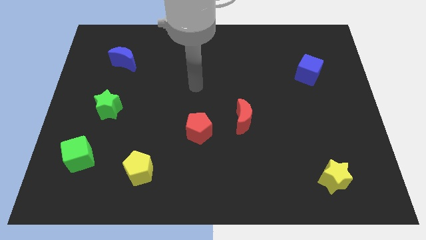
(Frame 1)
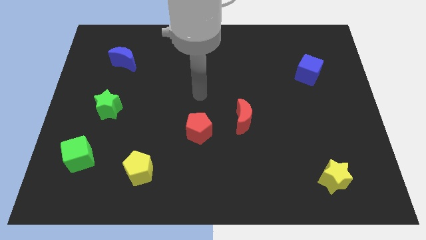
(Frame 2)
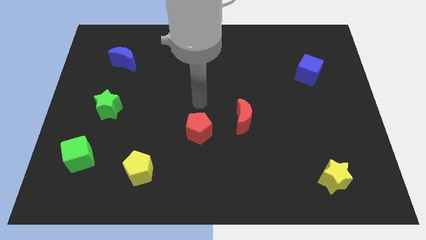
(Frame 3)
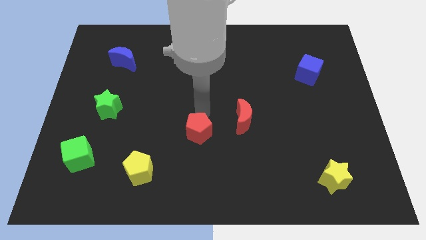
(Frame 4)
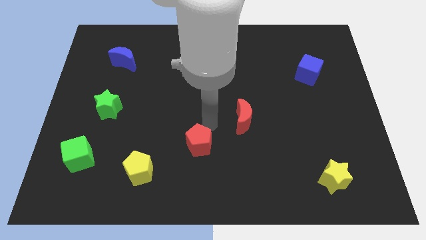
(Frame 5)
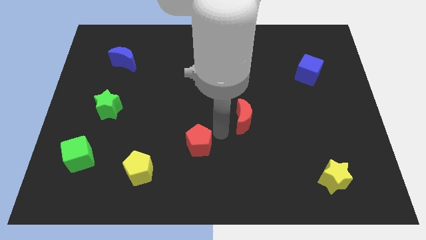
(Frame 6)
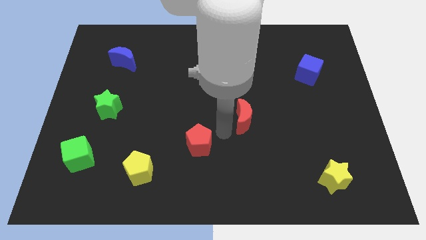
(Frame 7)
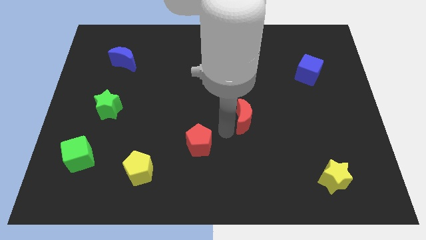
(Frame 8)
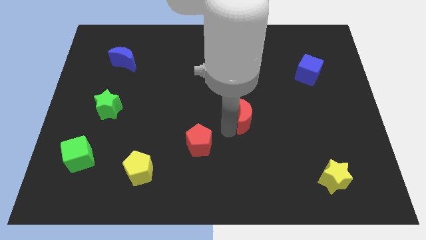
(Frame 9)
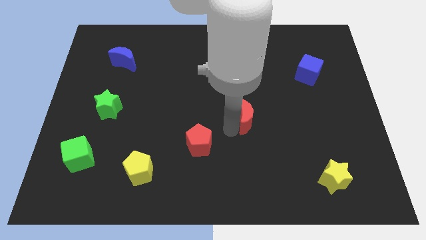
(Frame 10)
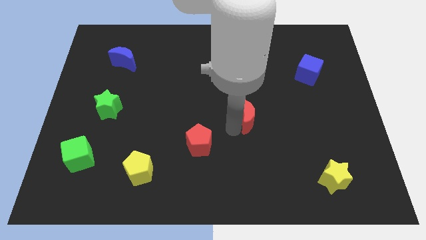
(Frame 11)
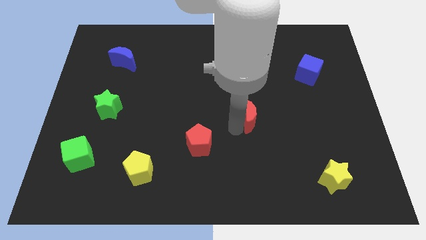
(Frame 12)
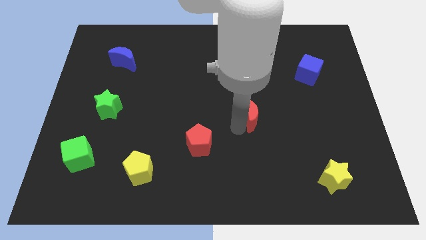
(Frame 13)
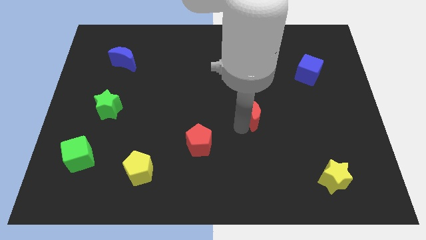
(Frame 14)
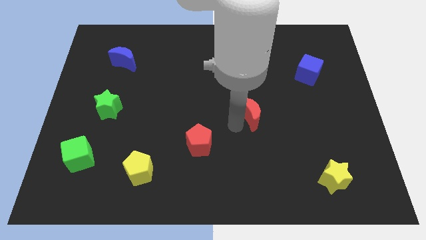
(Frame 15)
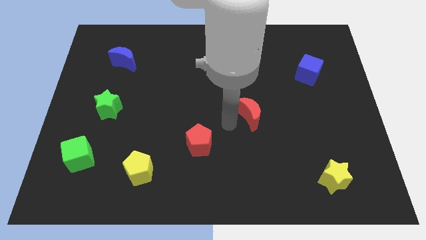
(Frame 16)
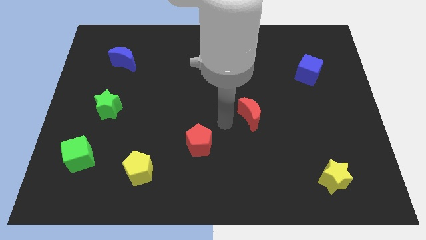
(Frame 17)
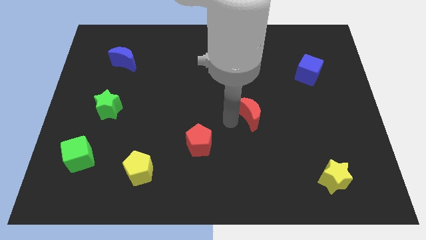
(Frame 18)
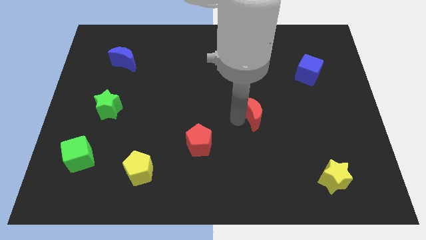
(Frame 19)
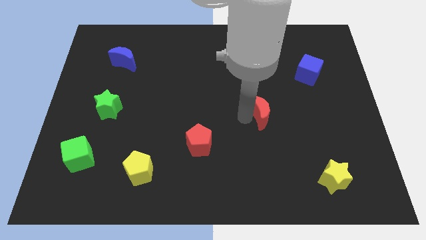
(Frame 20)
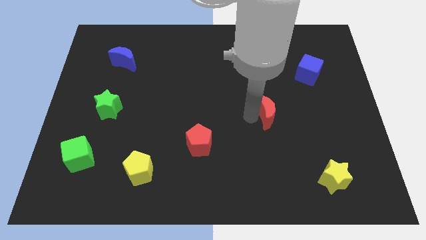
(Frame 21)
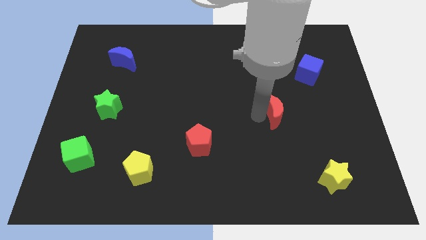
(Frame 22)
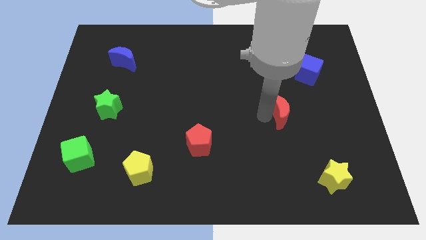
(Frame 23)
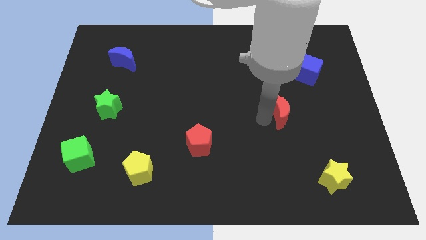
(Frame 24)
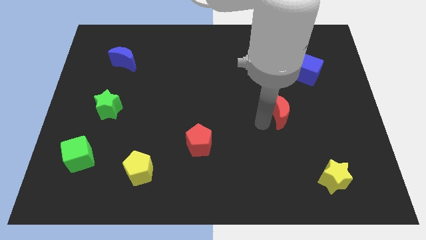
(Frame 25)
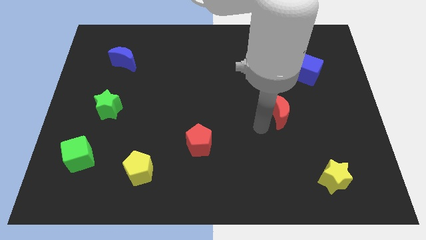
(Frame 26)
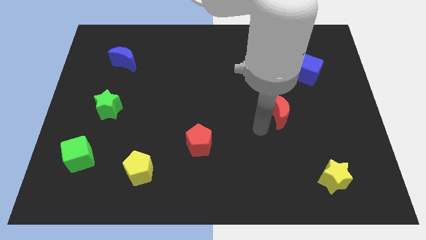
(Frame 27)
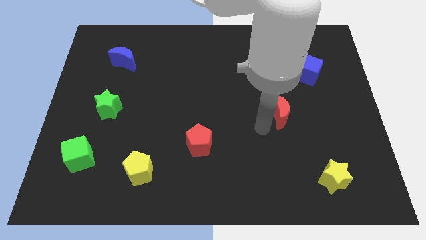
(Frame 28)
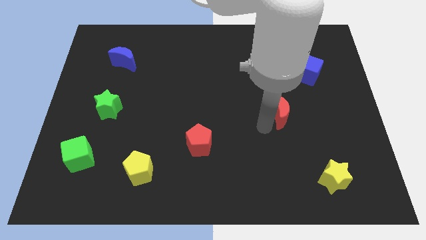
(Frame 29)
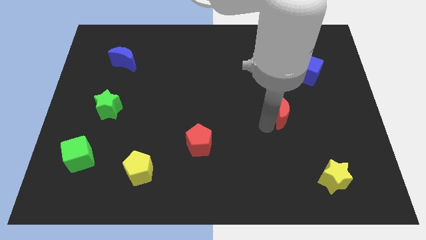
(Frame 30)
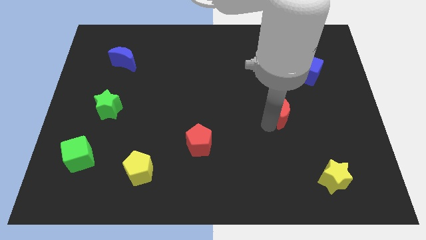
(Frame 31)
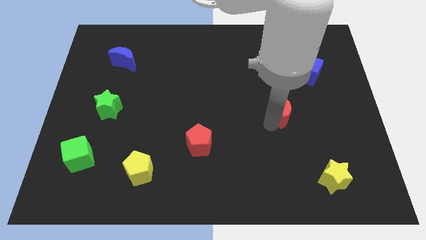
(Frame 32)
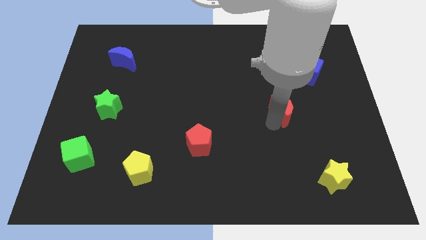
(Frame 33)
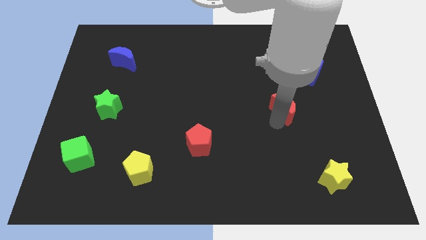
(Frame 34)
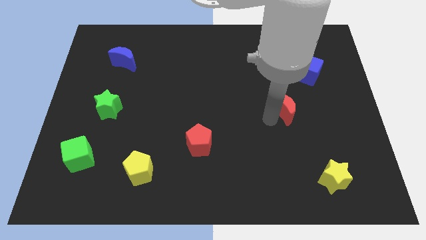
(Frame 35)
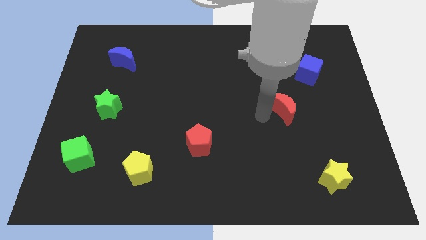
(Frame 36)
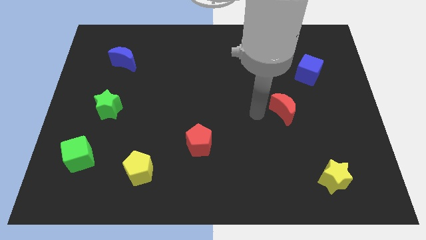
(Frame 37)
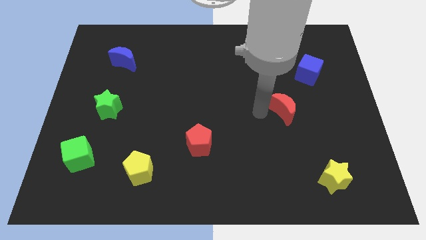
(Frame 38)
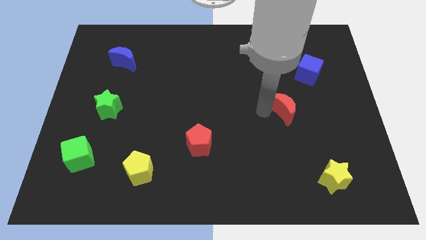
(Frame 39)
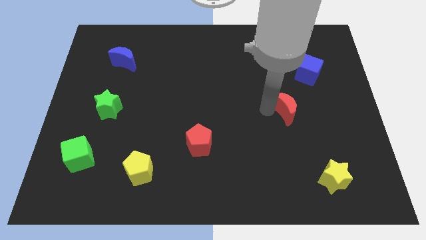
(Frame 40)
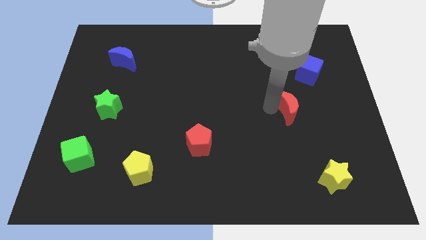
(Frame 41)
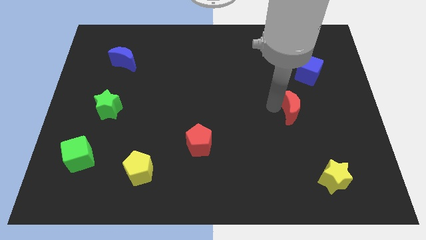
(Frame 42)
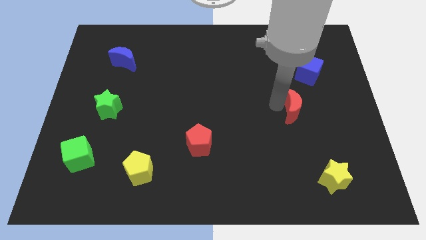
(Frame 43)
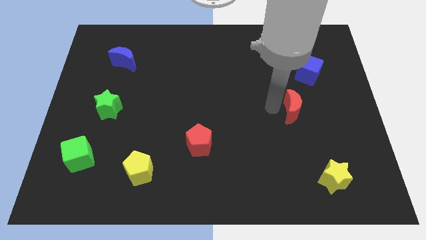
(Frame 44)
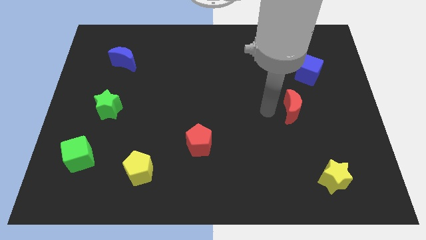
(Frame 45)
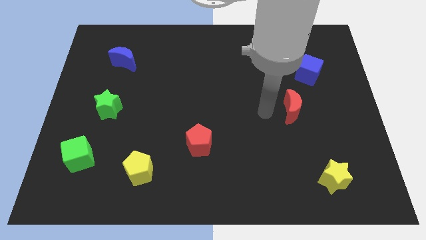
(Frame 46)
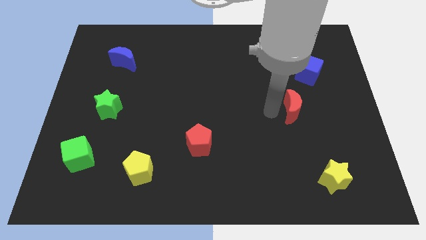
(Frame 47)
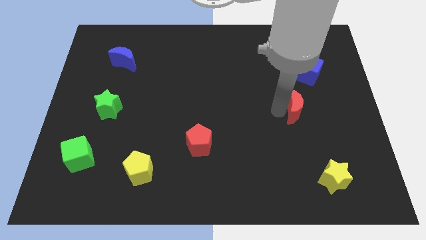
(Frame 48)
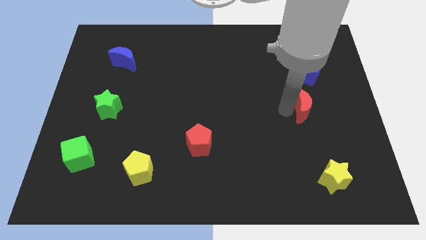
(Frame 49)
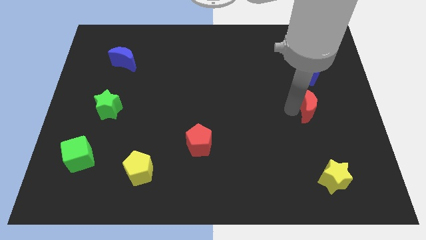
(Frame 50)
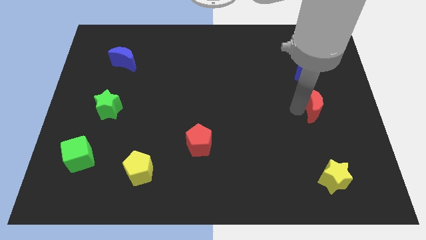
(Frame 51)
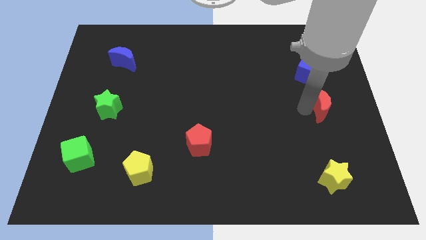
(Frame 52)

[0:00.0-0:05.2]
put the red moon to the center right

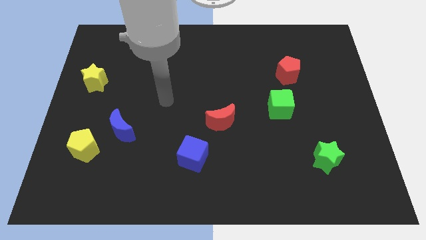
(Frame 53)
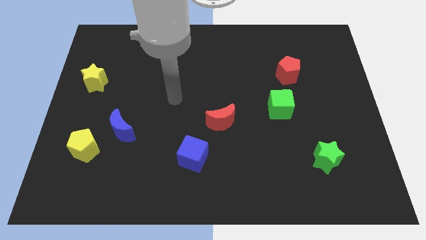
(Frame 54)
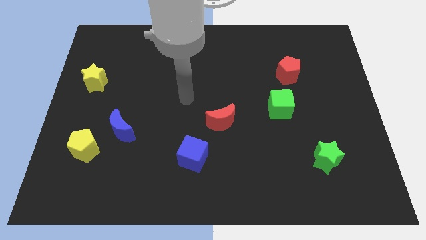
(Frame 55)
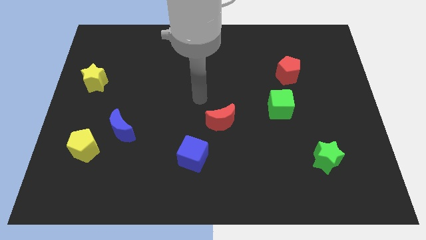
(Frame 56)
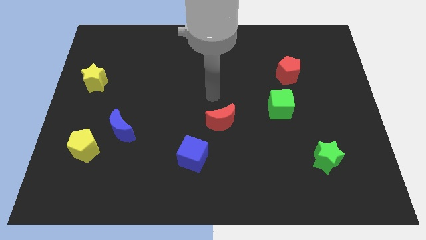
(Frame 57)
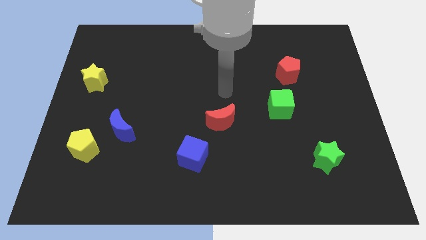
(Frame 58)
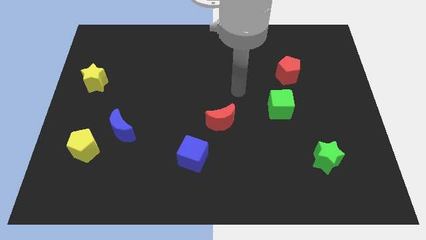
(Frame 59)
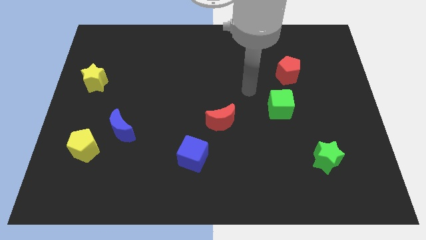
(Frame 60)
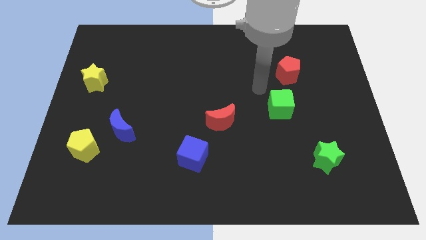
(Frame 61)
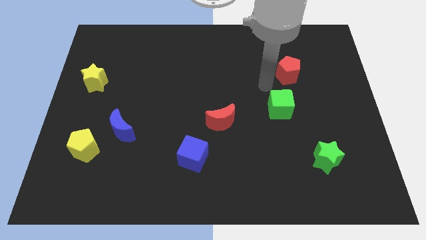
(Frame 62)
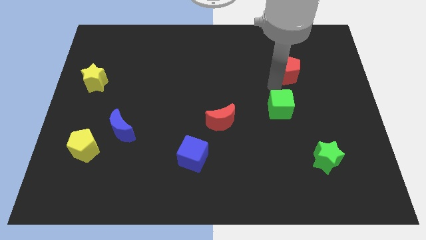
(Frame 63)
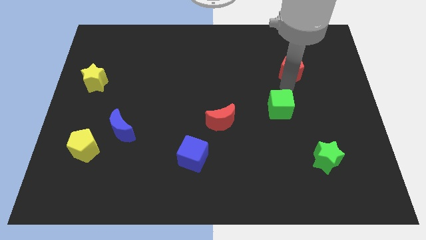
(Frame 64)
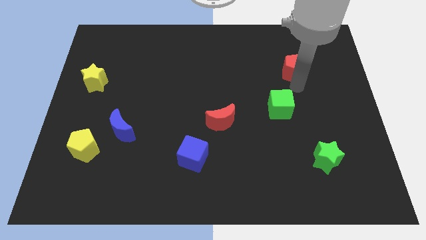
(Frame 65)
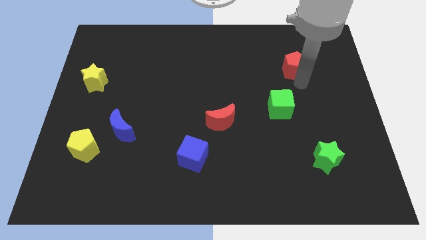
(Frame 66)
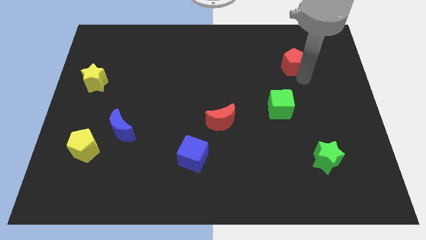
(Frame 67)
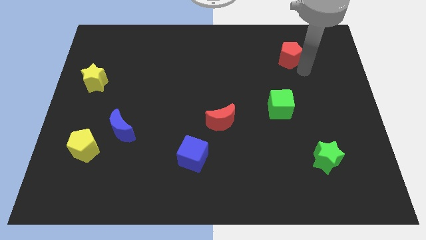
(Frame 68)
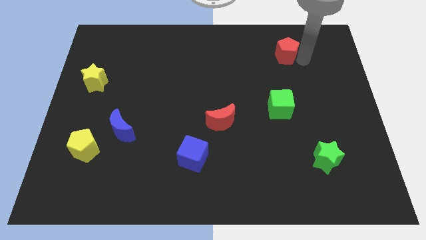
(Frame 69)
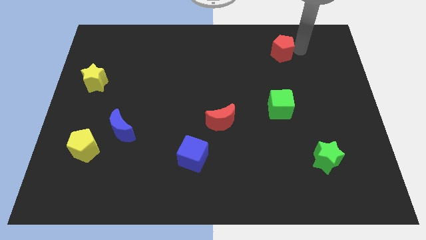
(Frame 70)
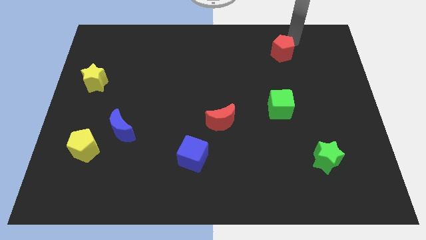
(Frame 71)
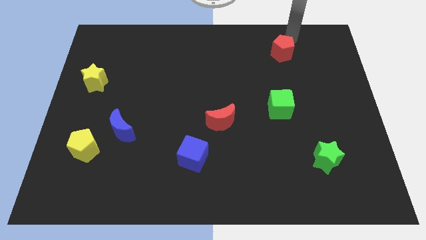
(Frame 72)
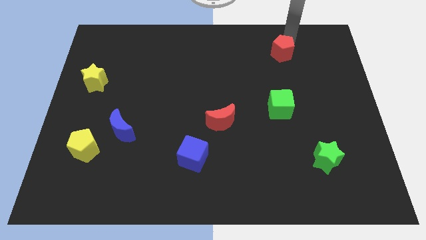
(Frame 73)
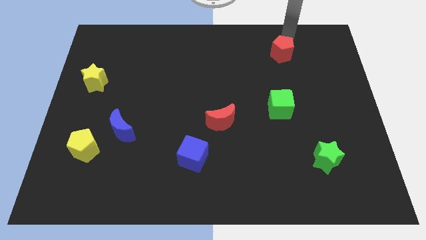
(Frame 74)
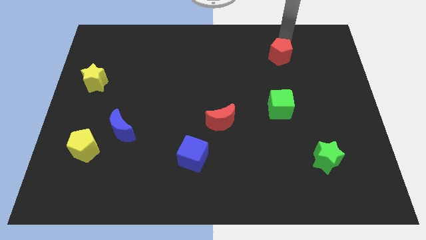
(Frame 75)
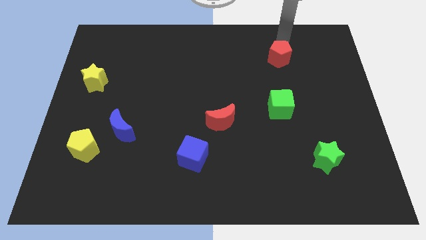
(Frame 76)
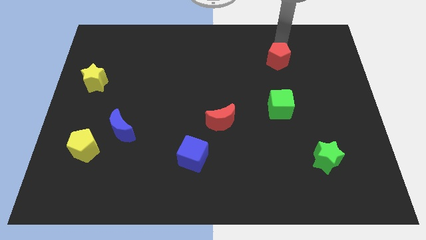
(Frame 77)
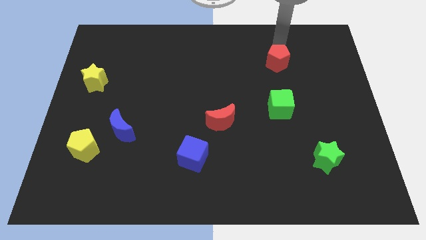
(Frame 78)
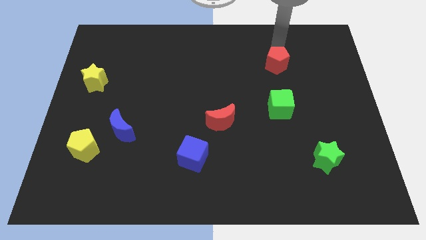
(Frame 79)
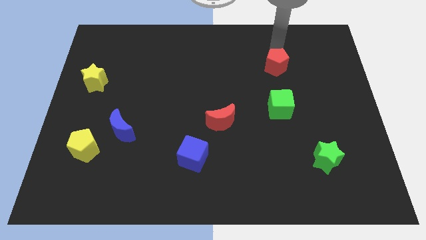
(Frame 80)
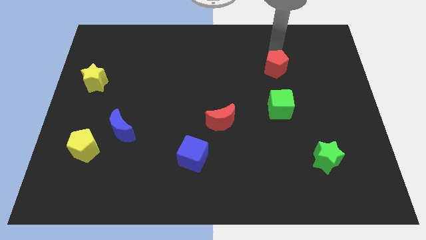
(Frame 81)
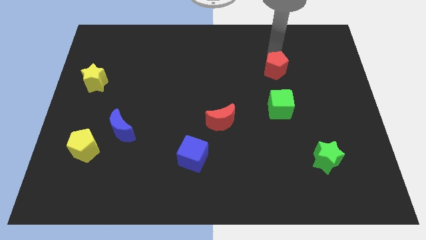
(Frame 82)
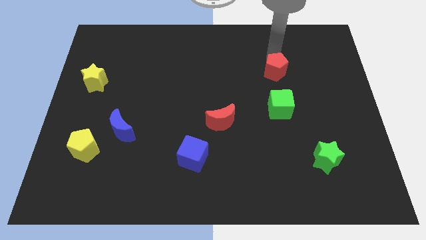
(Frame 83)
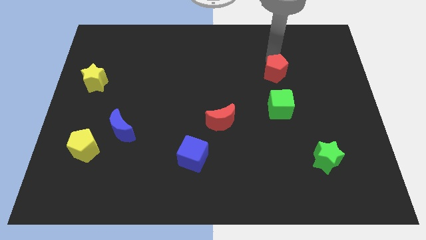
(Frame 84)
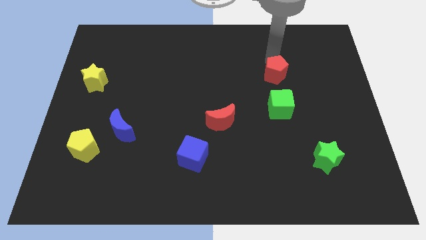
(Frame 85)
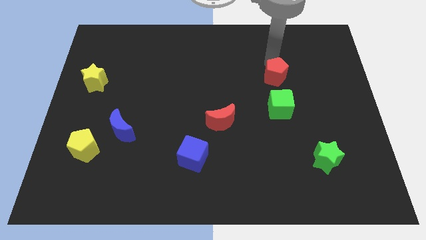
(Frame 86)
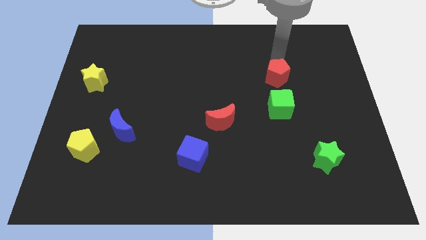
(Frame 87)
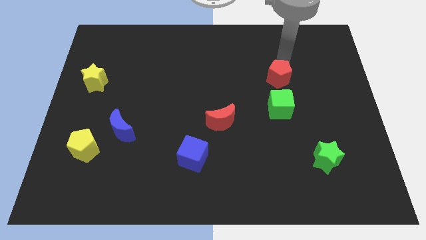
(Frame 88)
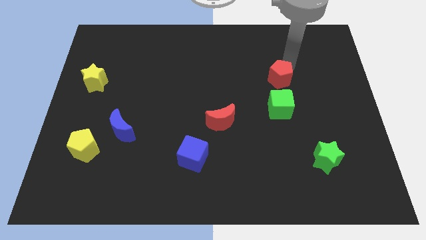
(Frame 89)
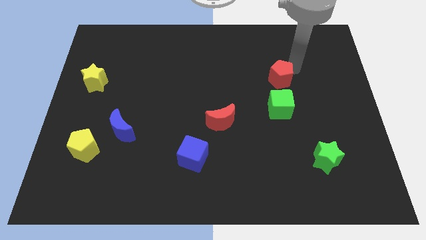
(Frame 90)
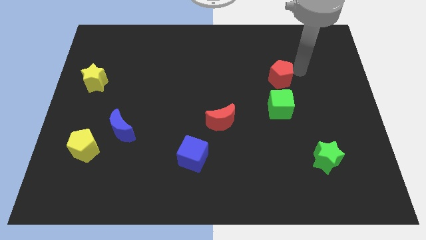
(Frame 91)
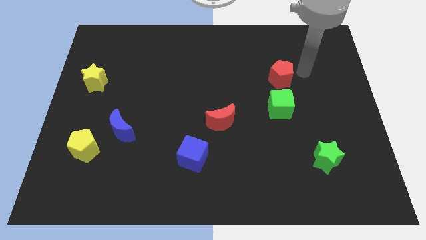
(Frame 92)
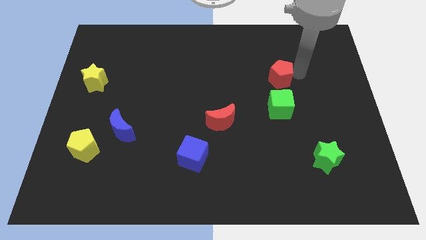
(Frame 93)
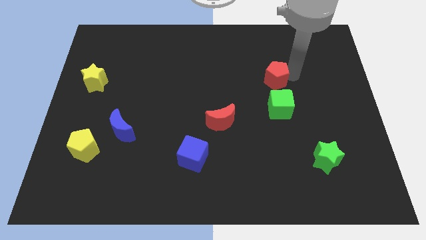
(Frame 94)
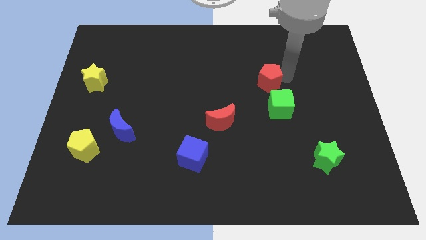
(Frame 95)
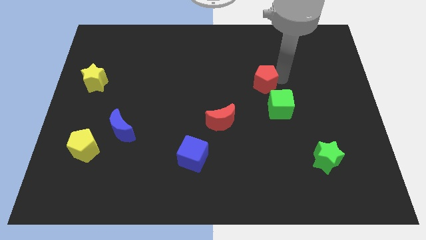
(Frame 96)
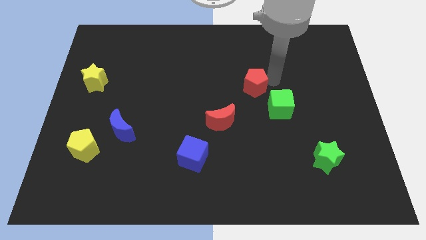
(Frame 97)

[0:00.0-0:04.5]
push the red pentagon to the center
